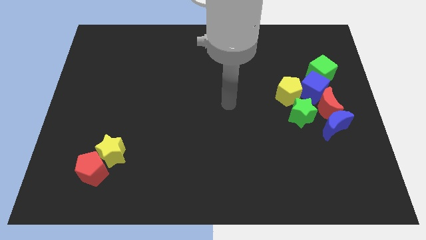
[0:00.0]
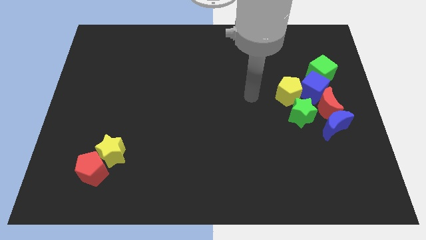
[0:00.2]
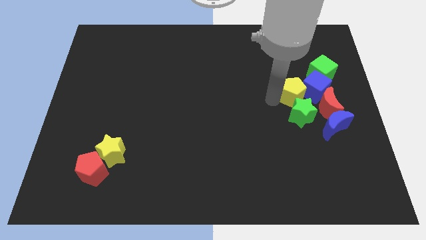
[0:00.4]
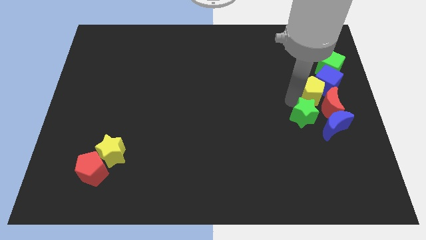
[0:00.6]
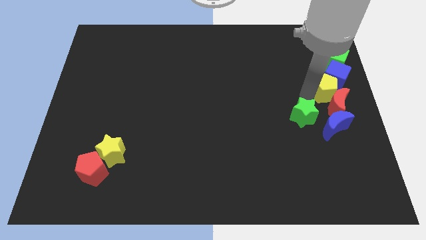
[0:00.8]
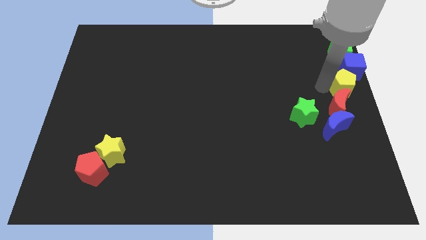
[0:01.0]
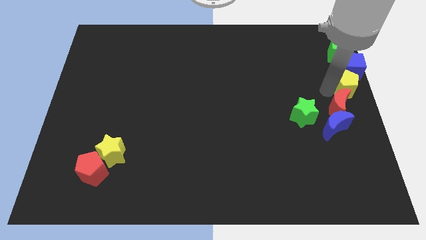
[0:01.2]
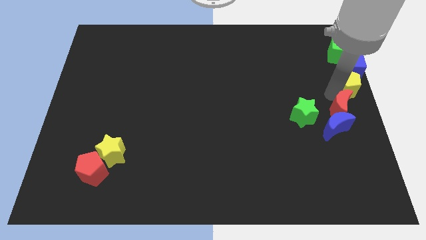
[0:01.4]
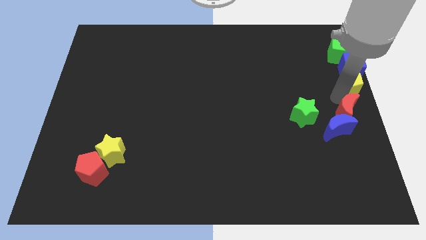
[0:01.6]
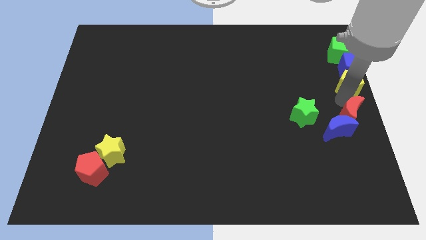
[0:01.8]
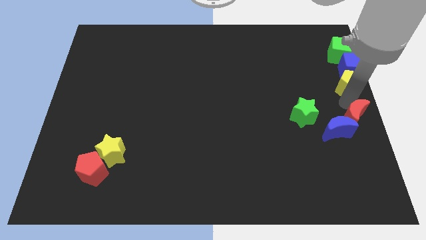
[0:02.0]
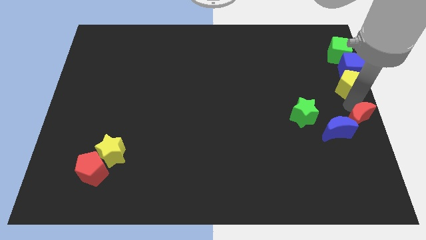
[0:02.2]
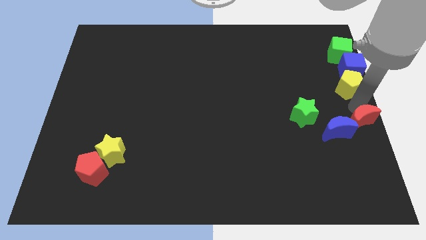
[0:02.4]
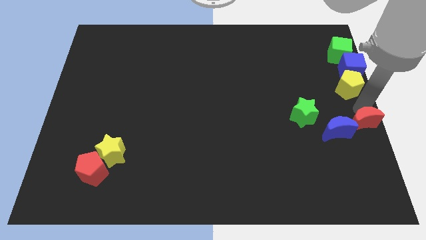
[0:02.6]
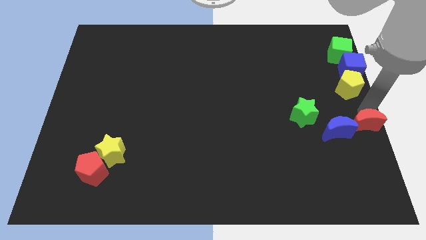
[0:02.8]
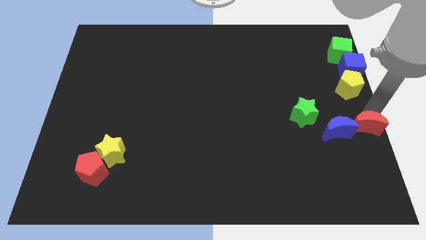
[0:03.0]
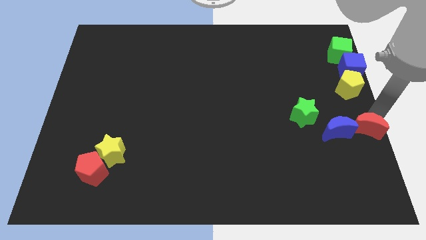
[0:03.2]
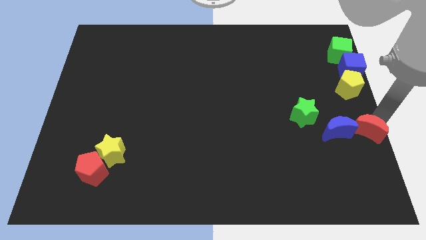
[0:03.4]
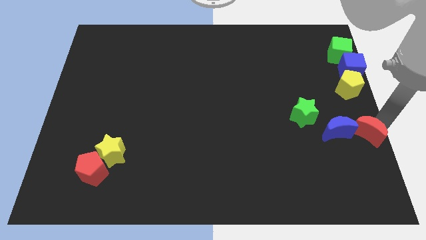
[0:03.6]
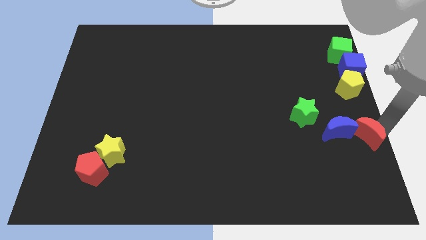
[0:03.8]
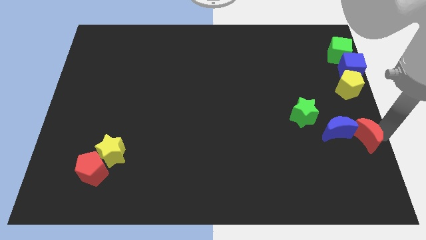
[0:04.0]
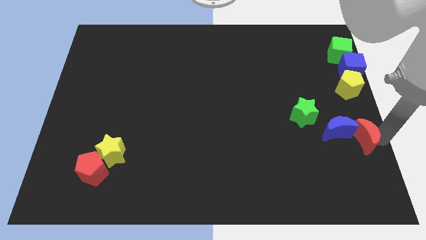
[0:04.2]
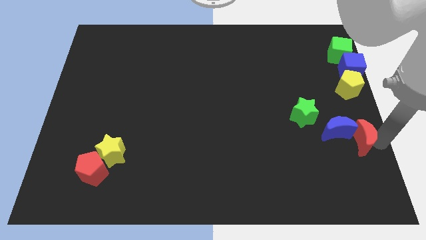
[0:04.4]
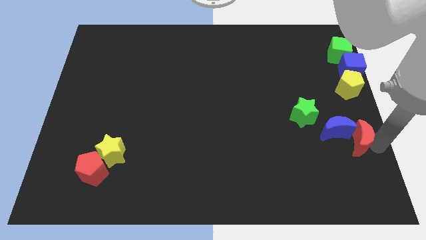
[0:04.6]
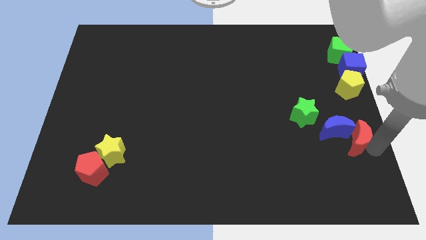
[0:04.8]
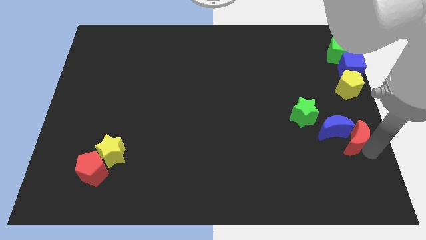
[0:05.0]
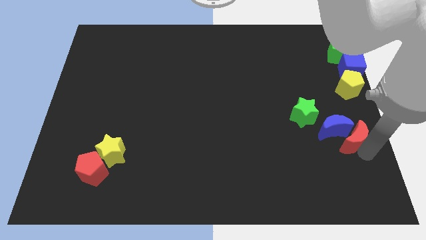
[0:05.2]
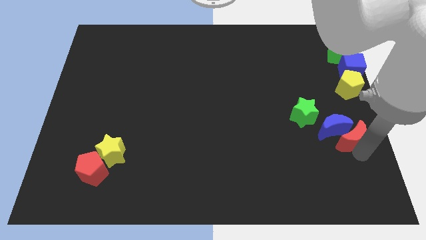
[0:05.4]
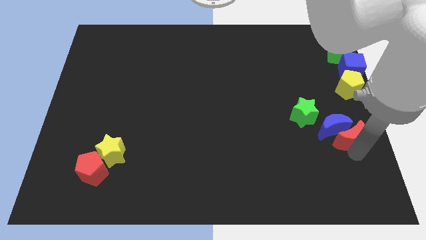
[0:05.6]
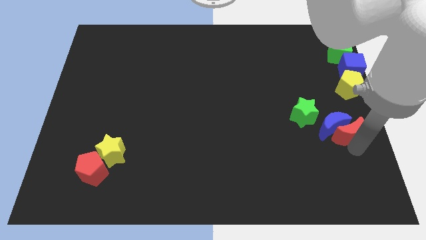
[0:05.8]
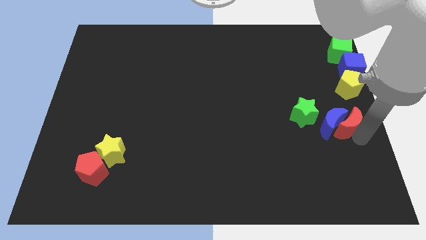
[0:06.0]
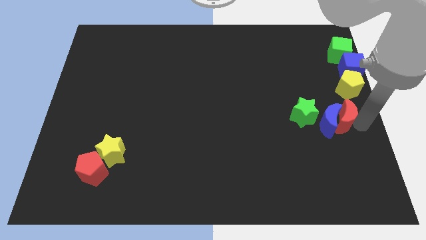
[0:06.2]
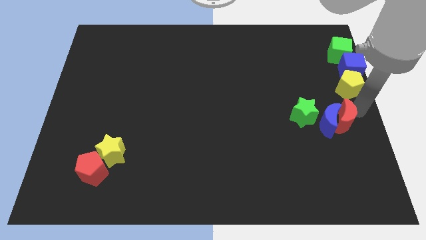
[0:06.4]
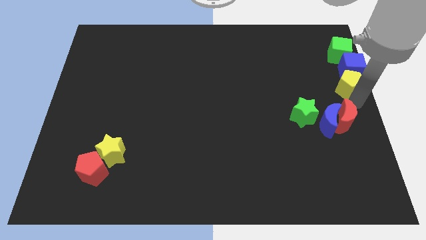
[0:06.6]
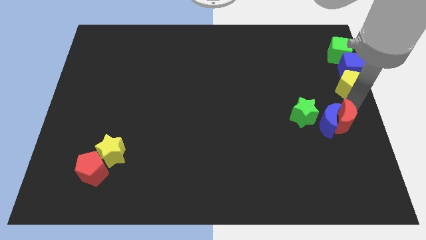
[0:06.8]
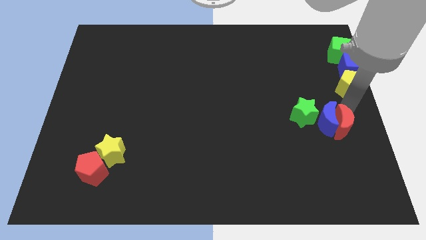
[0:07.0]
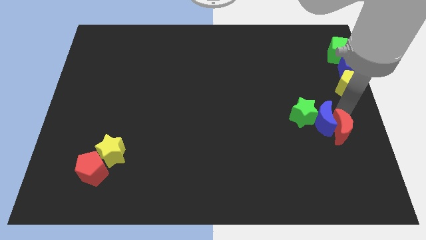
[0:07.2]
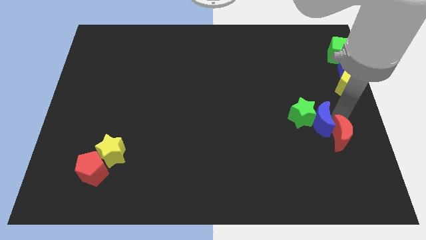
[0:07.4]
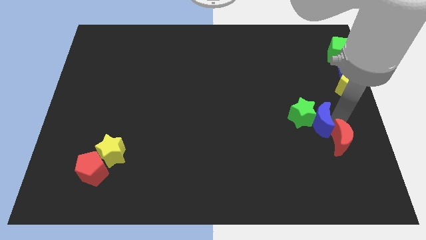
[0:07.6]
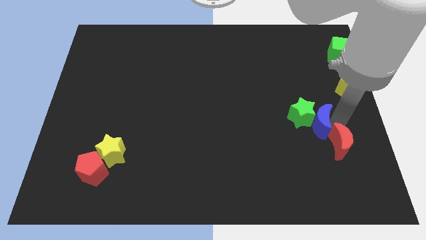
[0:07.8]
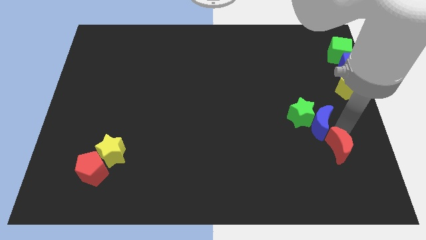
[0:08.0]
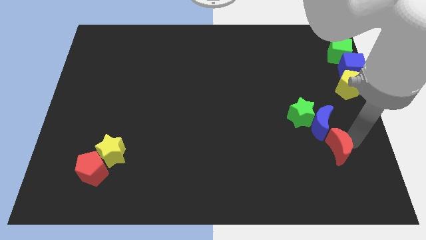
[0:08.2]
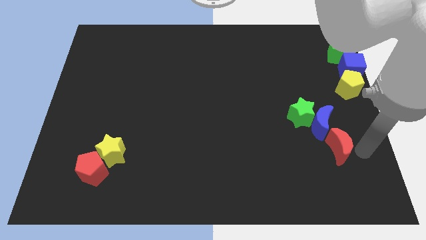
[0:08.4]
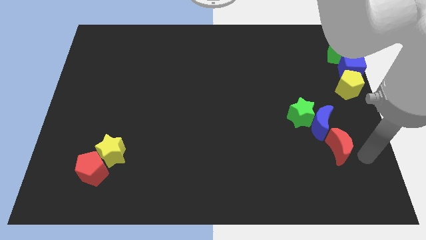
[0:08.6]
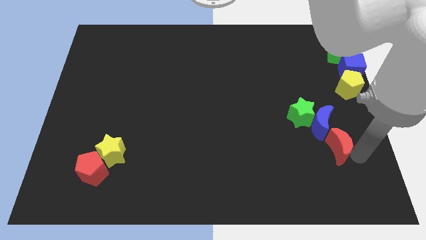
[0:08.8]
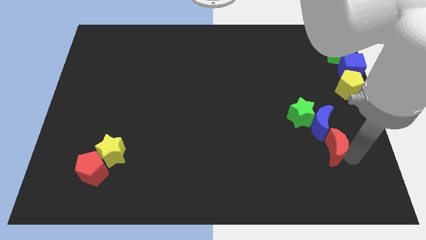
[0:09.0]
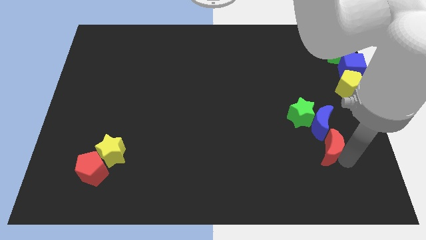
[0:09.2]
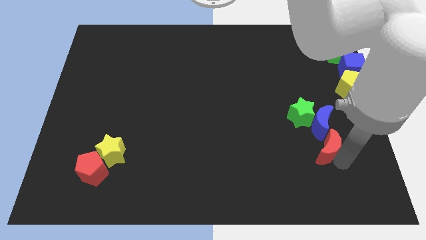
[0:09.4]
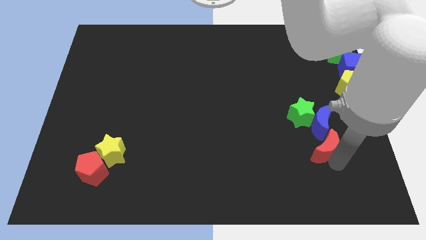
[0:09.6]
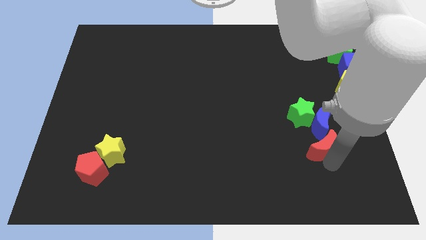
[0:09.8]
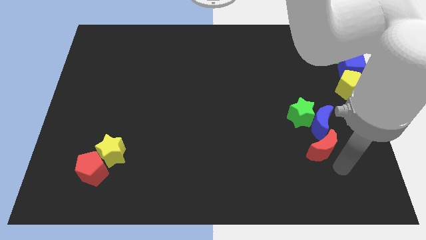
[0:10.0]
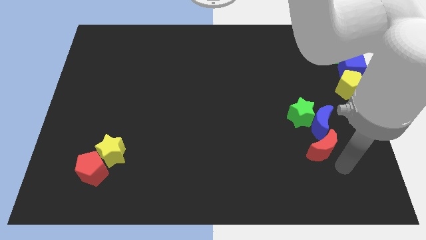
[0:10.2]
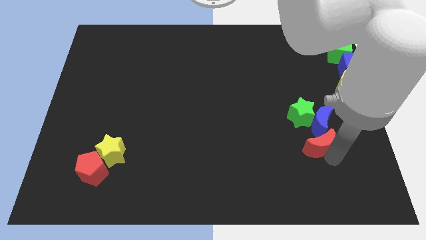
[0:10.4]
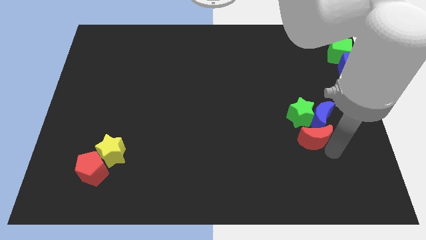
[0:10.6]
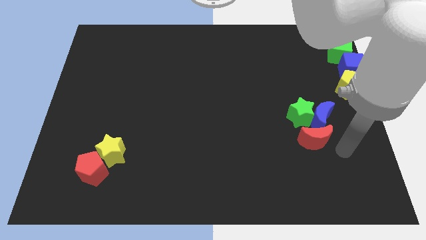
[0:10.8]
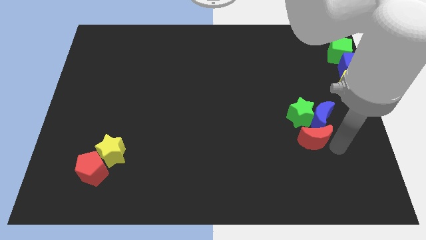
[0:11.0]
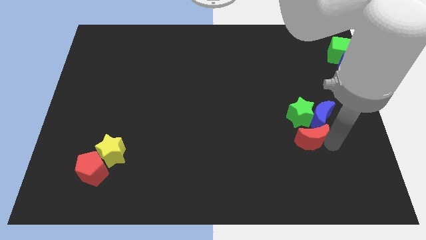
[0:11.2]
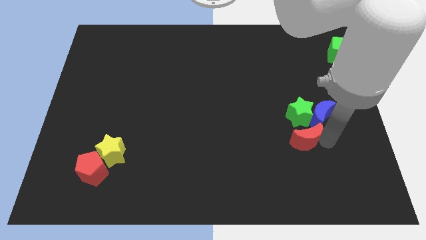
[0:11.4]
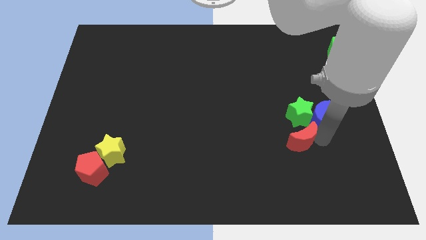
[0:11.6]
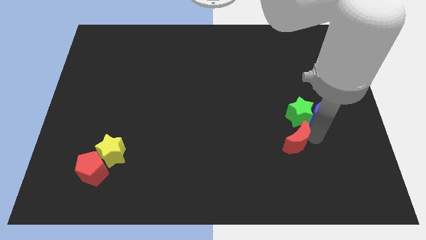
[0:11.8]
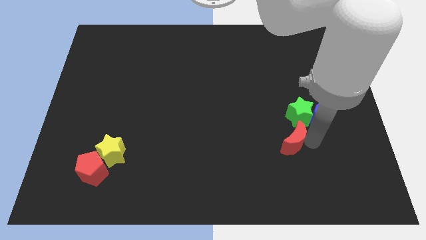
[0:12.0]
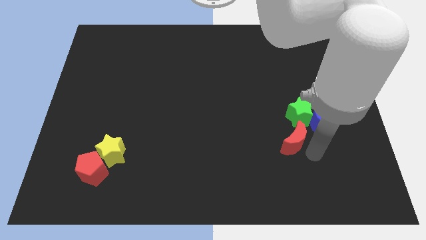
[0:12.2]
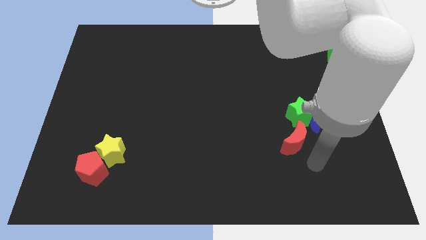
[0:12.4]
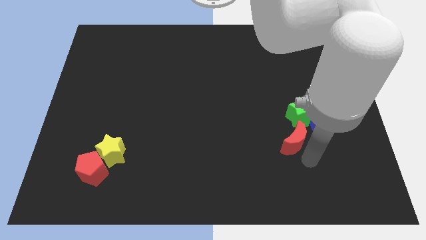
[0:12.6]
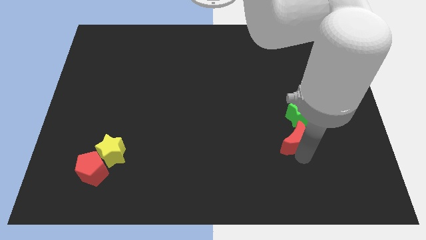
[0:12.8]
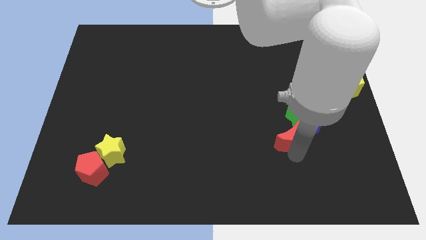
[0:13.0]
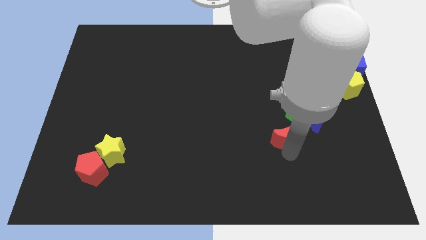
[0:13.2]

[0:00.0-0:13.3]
slightly move the red moon to the left

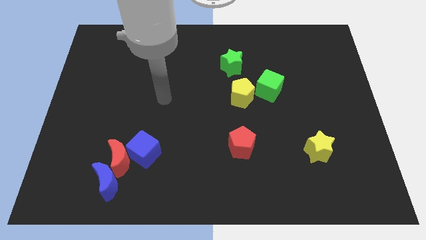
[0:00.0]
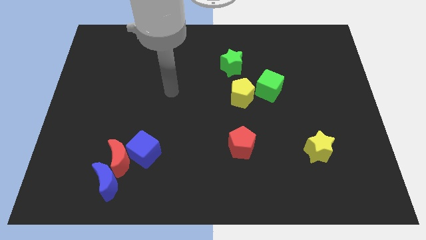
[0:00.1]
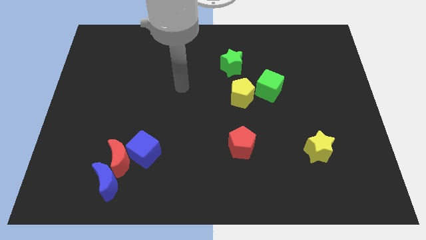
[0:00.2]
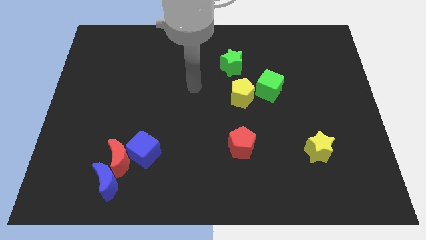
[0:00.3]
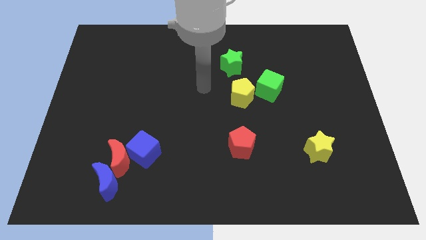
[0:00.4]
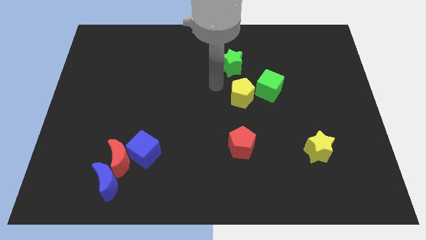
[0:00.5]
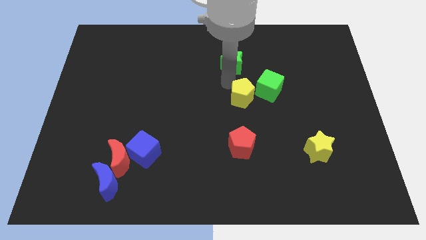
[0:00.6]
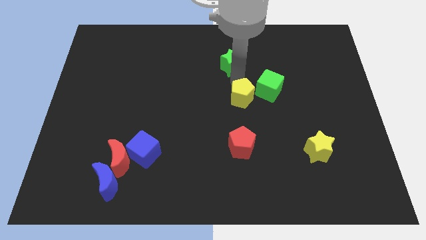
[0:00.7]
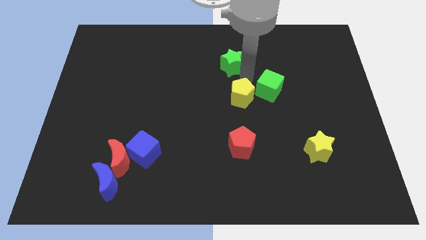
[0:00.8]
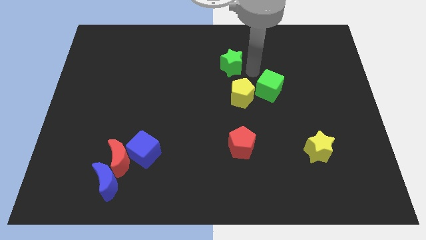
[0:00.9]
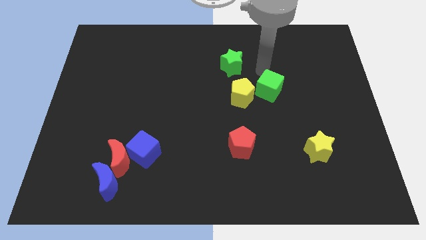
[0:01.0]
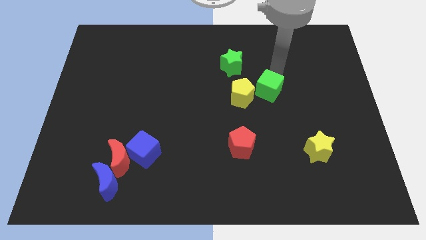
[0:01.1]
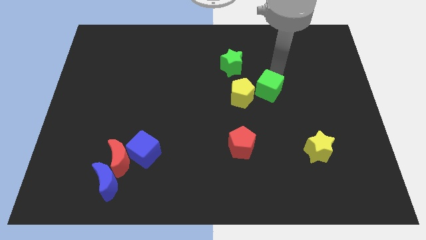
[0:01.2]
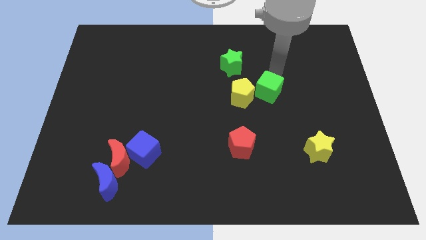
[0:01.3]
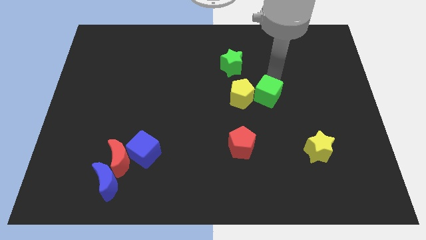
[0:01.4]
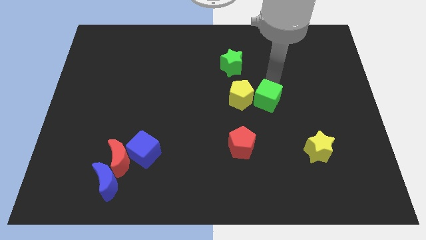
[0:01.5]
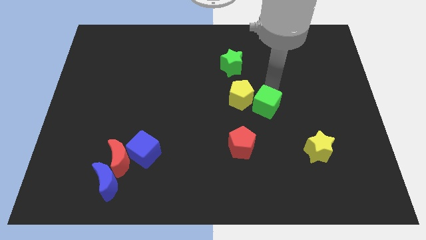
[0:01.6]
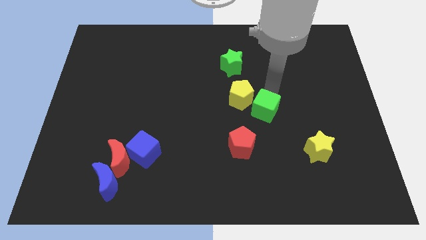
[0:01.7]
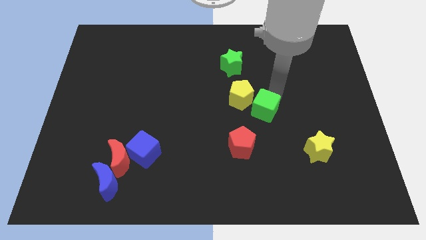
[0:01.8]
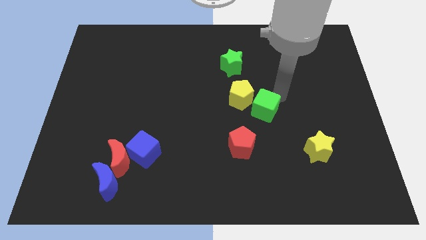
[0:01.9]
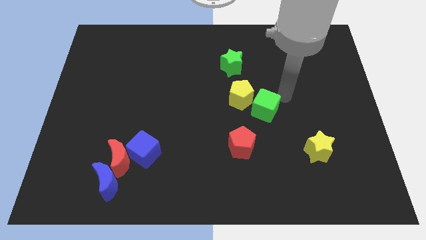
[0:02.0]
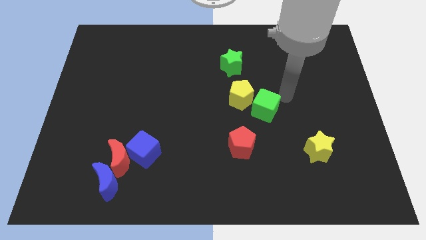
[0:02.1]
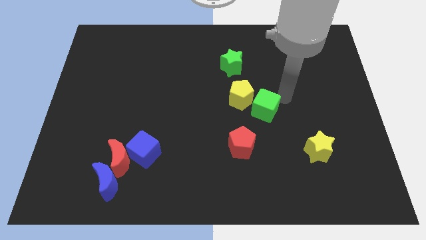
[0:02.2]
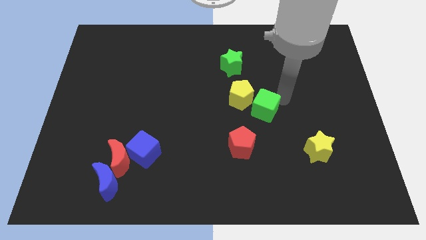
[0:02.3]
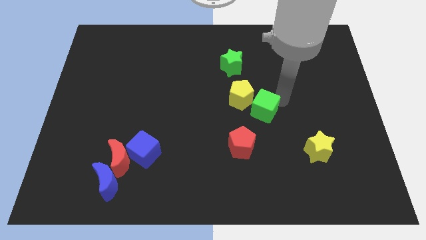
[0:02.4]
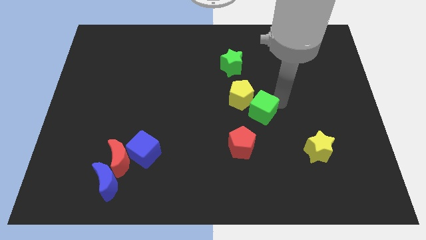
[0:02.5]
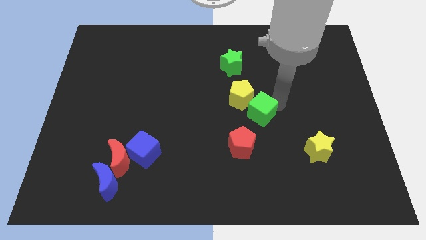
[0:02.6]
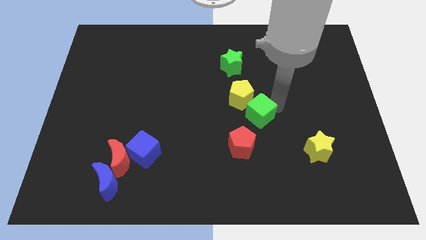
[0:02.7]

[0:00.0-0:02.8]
move the green cube a bit diagonally downwards and left
